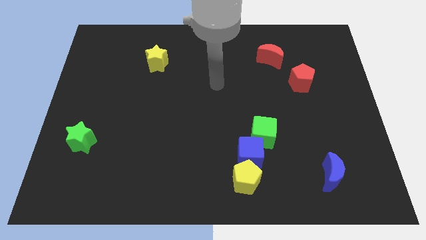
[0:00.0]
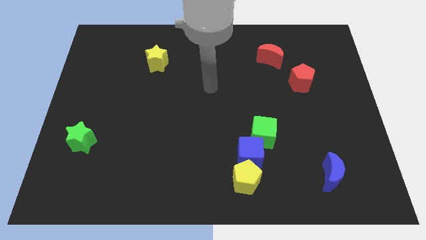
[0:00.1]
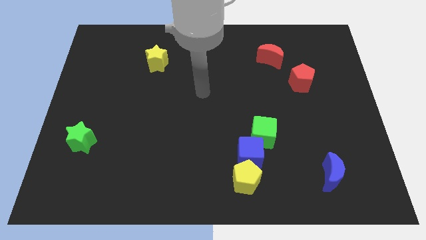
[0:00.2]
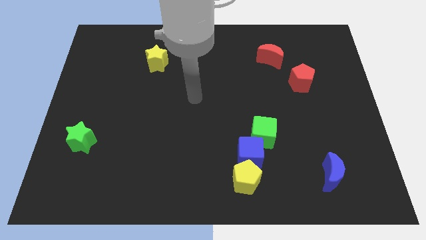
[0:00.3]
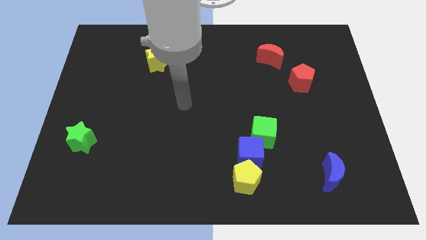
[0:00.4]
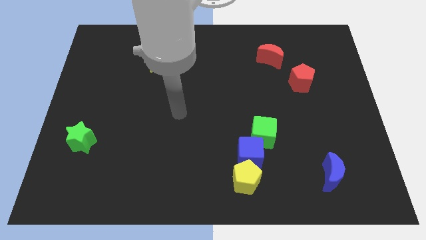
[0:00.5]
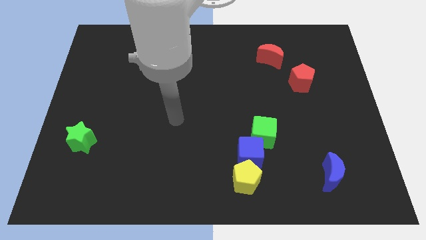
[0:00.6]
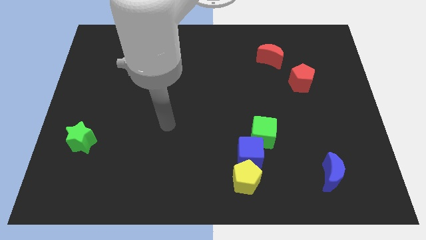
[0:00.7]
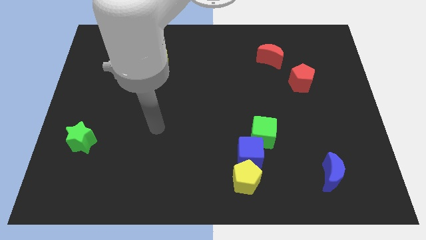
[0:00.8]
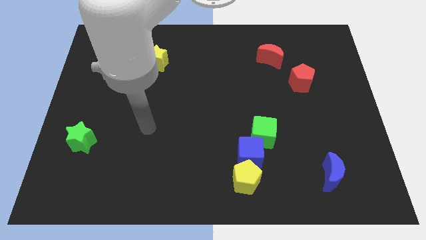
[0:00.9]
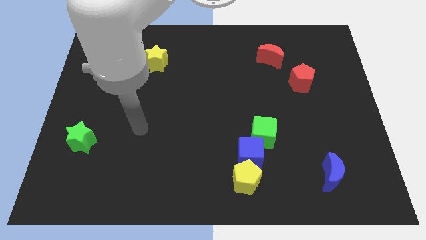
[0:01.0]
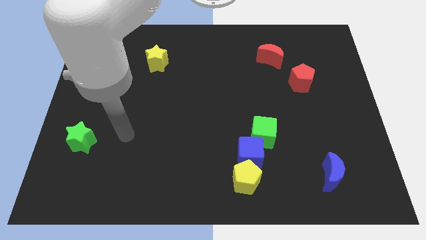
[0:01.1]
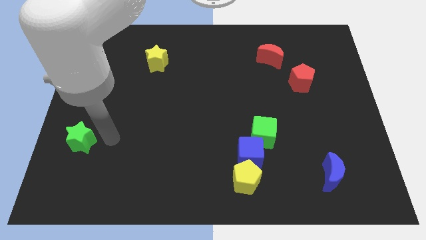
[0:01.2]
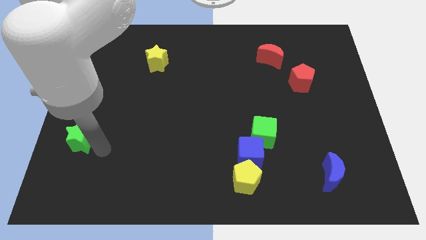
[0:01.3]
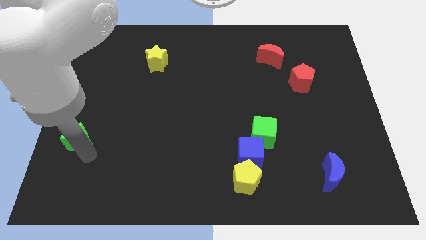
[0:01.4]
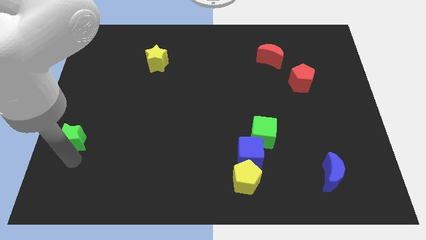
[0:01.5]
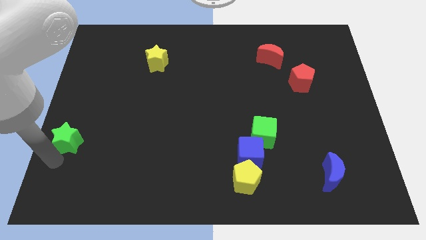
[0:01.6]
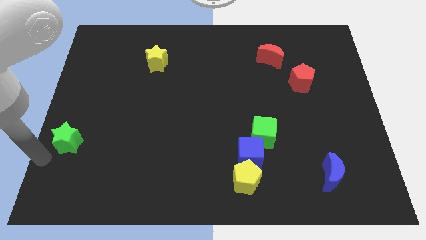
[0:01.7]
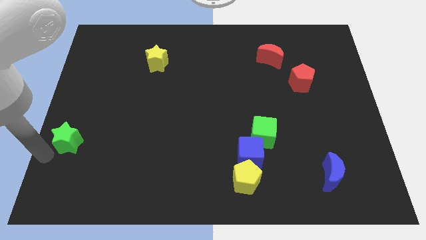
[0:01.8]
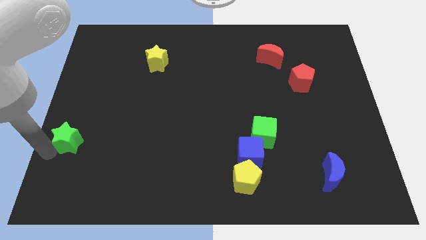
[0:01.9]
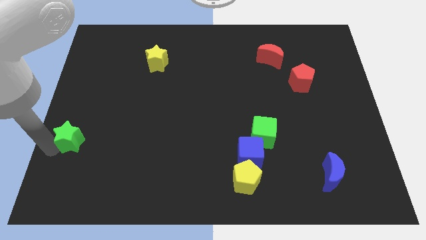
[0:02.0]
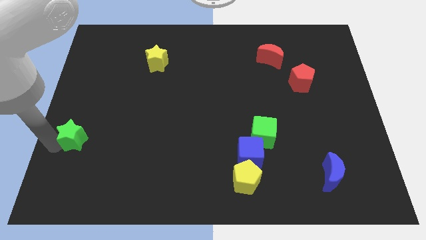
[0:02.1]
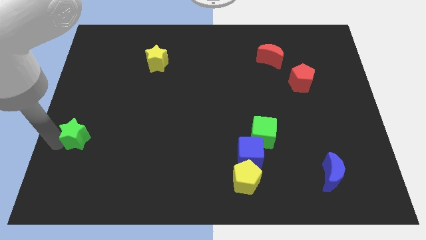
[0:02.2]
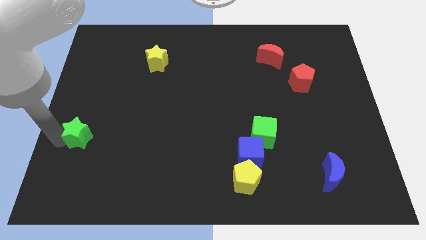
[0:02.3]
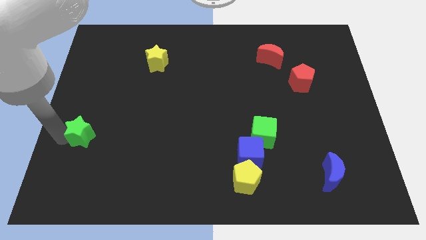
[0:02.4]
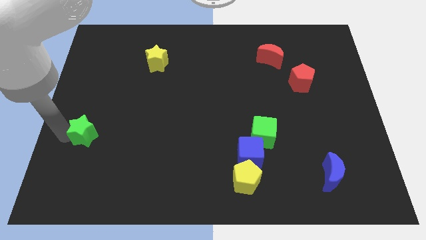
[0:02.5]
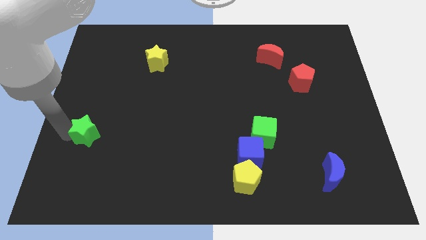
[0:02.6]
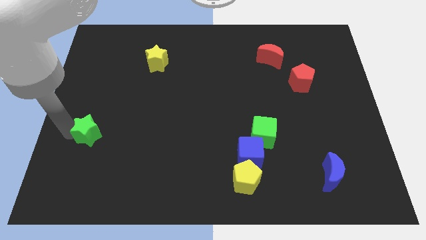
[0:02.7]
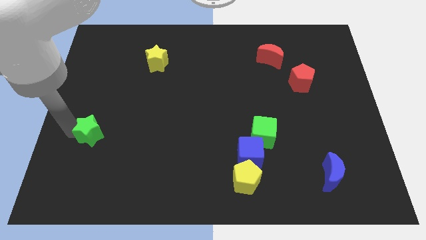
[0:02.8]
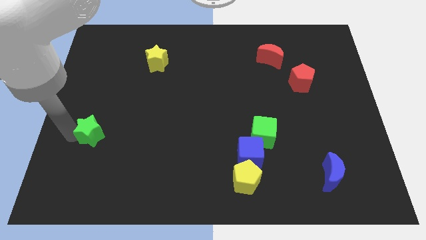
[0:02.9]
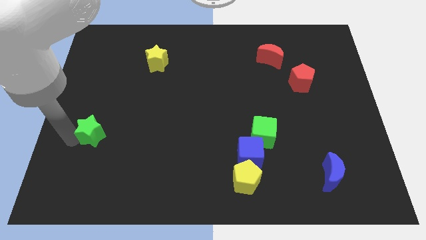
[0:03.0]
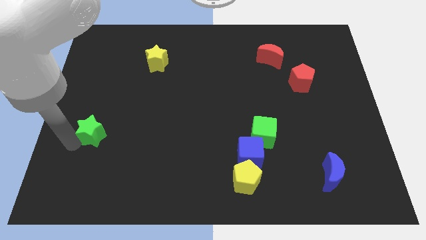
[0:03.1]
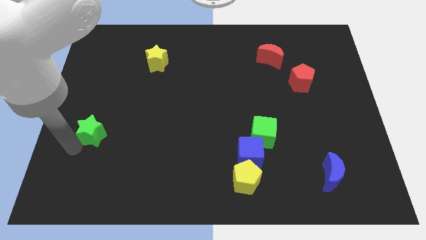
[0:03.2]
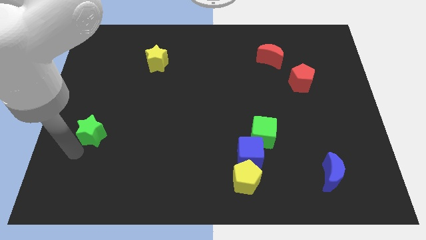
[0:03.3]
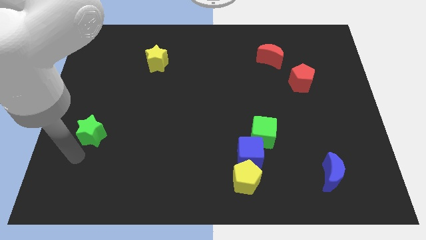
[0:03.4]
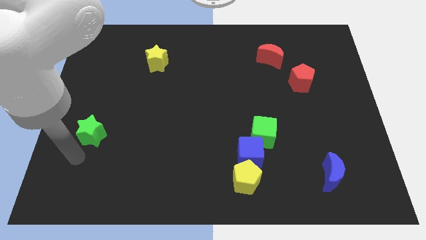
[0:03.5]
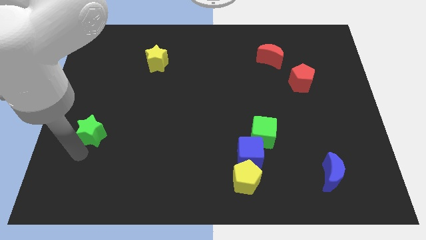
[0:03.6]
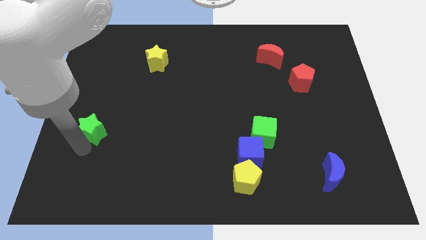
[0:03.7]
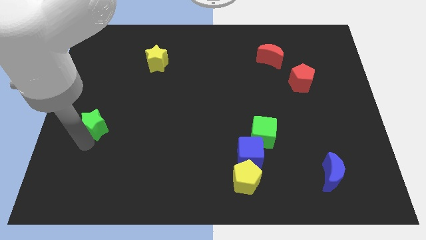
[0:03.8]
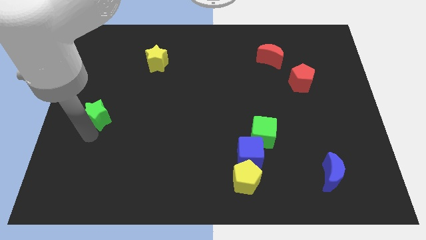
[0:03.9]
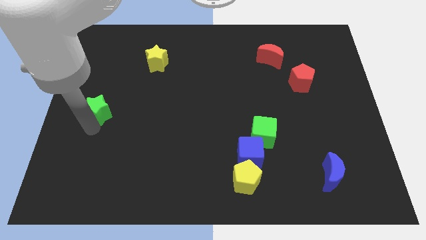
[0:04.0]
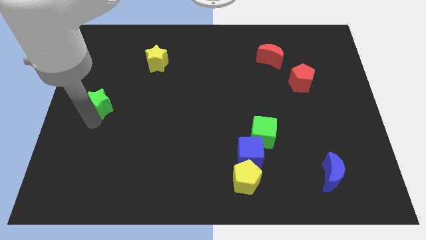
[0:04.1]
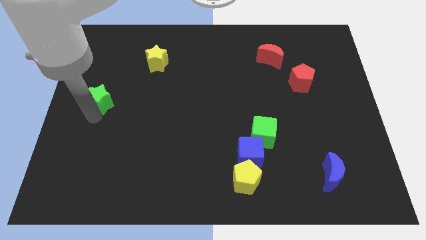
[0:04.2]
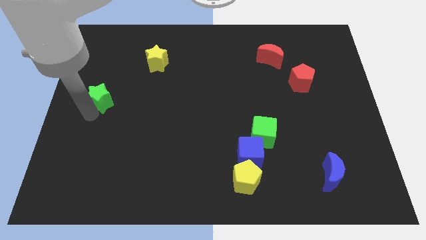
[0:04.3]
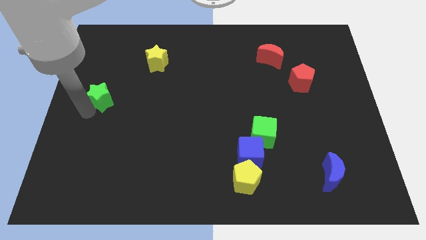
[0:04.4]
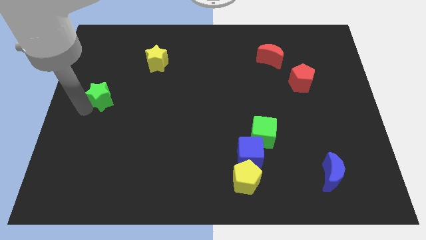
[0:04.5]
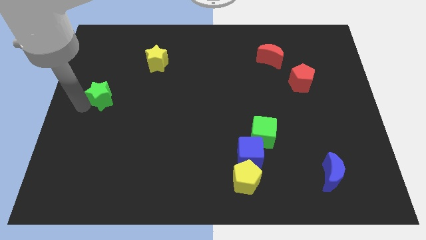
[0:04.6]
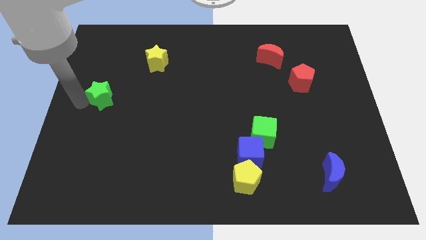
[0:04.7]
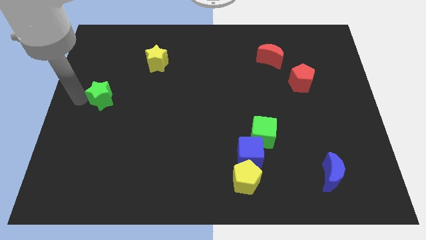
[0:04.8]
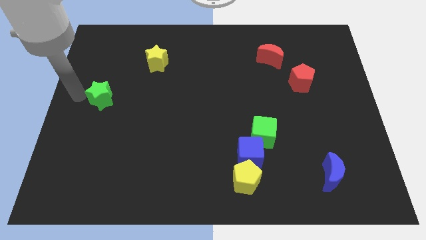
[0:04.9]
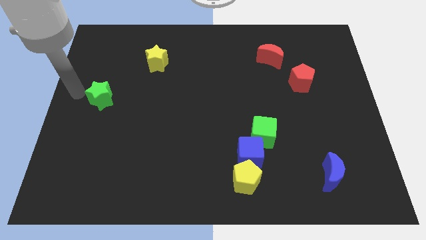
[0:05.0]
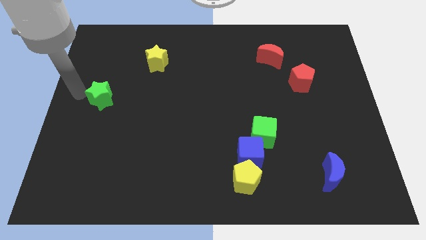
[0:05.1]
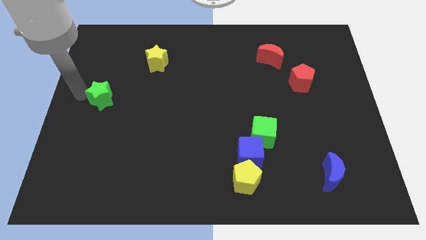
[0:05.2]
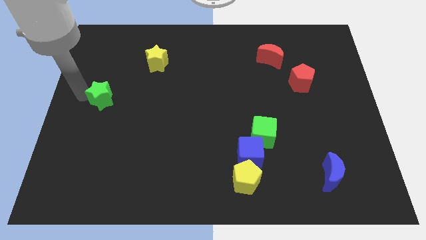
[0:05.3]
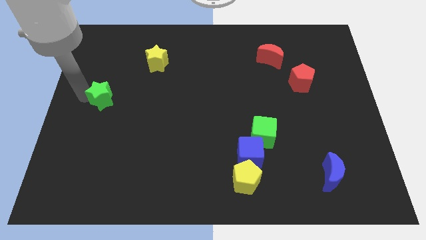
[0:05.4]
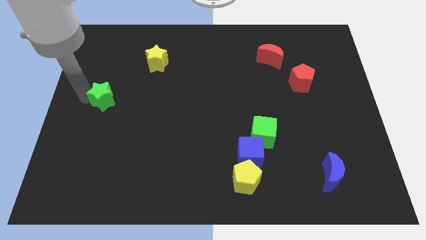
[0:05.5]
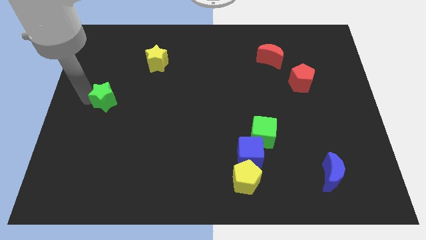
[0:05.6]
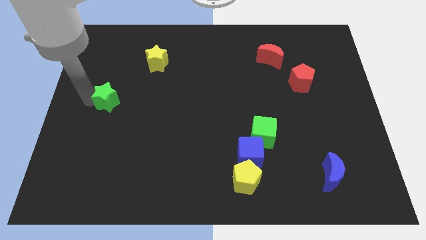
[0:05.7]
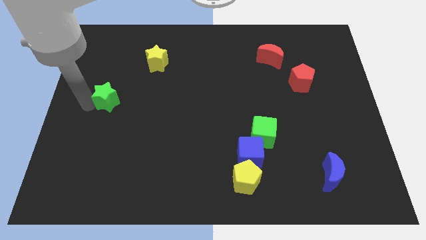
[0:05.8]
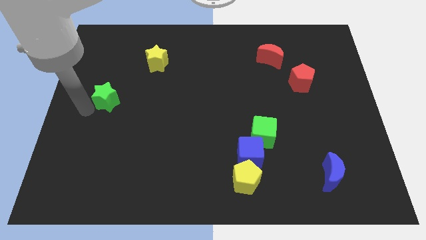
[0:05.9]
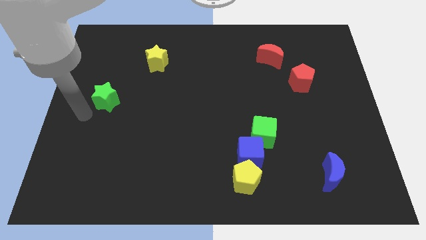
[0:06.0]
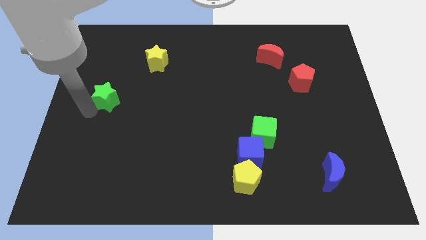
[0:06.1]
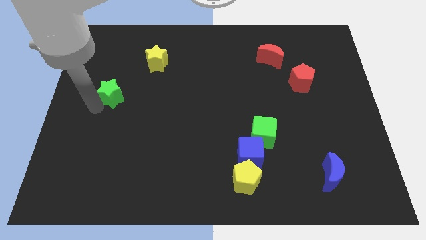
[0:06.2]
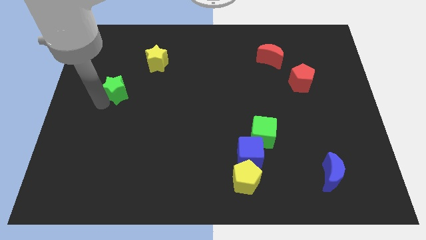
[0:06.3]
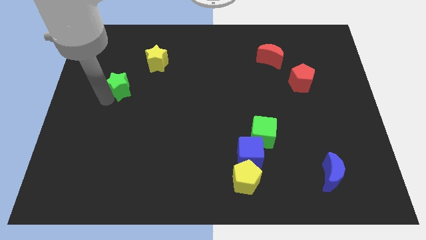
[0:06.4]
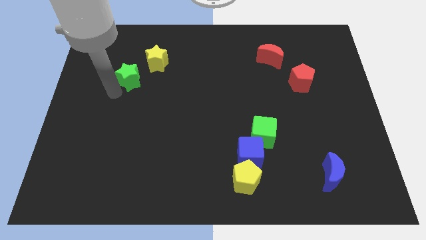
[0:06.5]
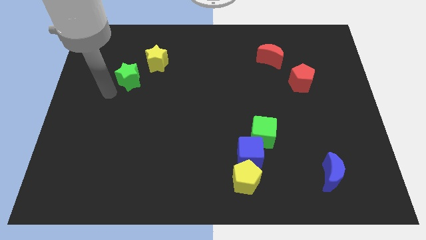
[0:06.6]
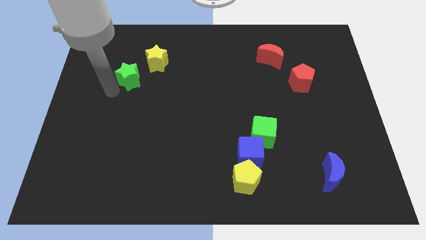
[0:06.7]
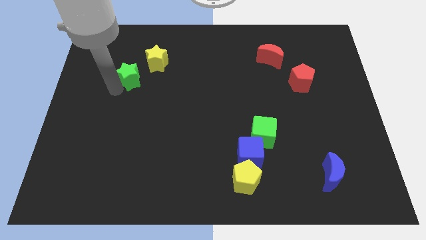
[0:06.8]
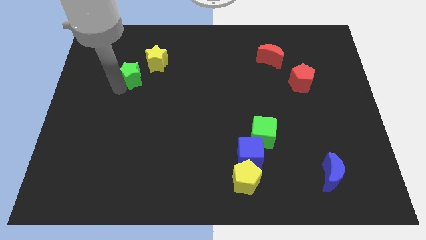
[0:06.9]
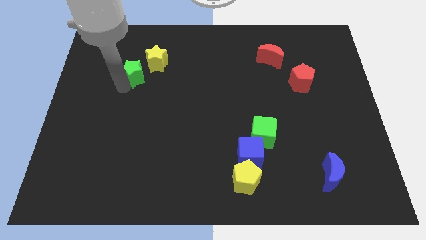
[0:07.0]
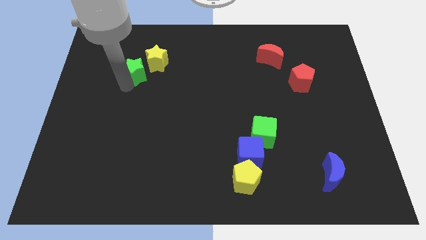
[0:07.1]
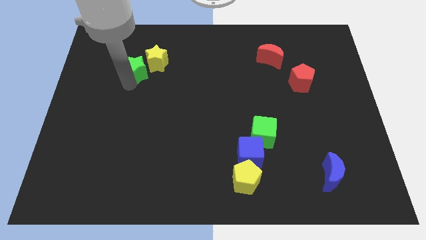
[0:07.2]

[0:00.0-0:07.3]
push the green star to the yellow star
